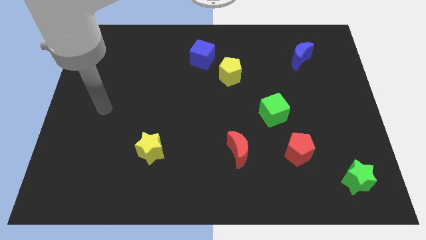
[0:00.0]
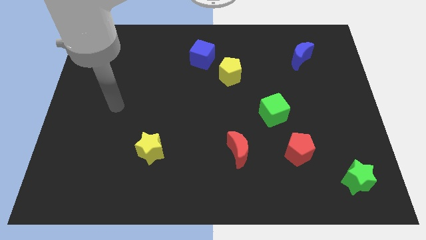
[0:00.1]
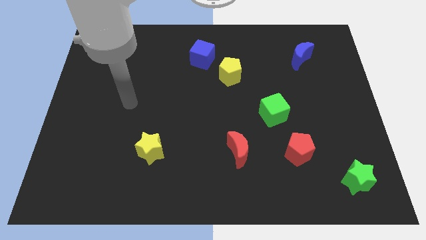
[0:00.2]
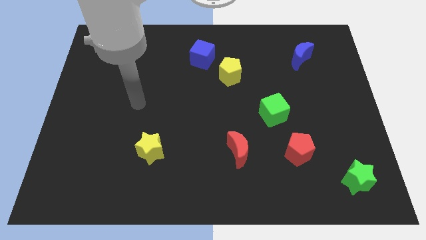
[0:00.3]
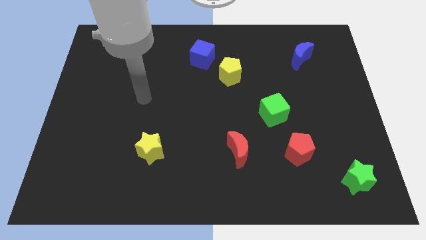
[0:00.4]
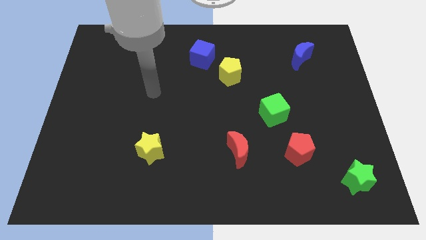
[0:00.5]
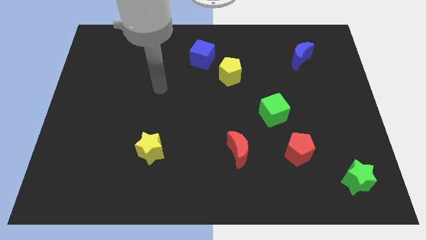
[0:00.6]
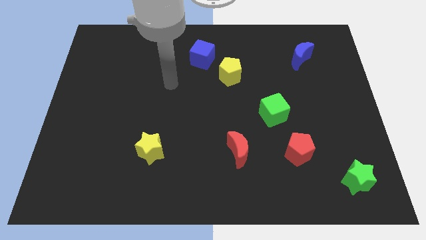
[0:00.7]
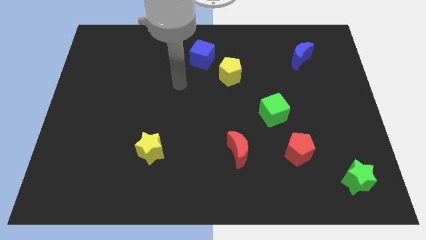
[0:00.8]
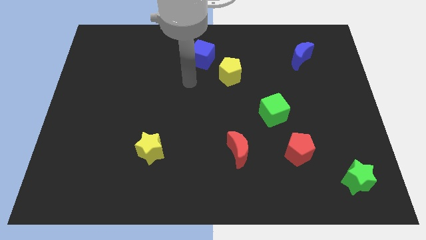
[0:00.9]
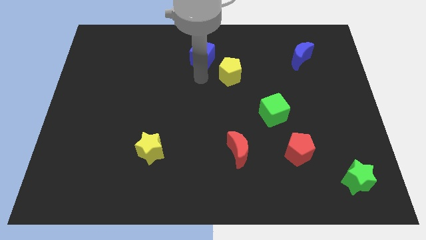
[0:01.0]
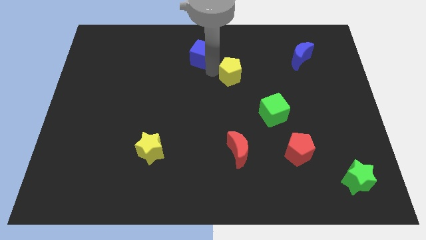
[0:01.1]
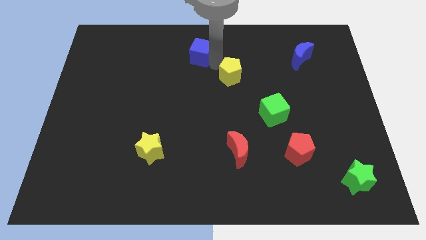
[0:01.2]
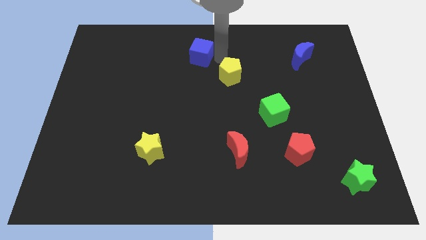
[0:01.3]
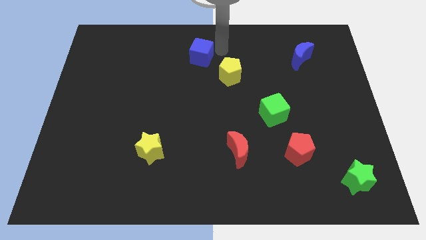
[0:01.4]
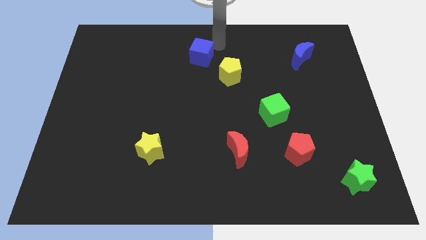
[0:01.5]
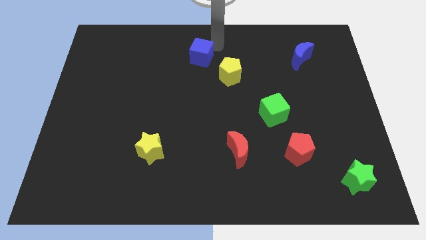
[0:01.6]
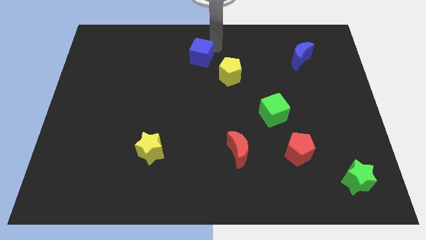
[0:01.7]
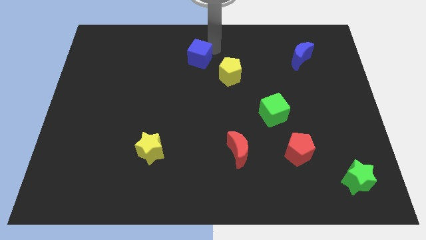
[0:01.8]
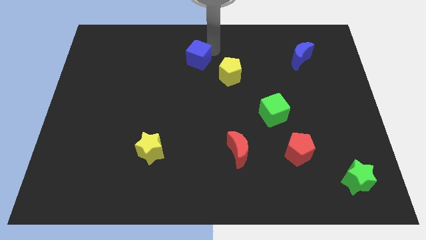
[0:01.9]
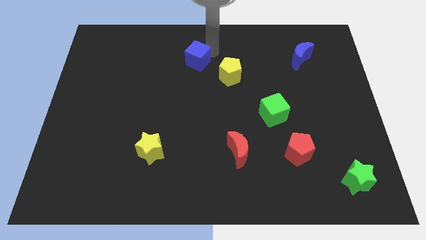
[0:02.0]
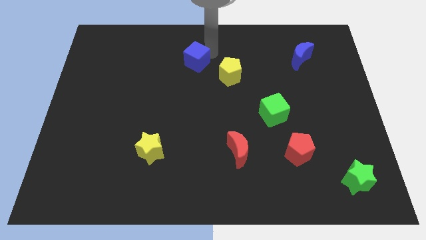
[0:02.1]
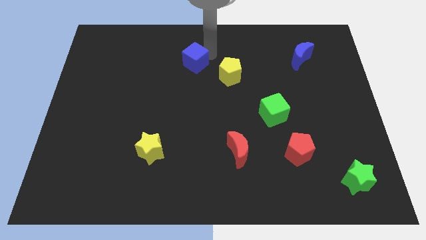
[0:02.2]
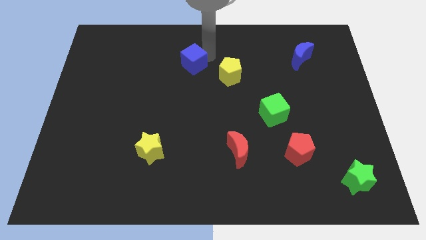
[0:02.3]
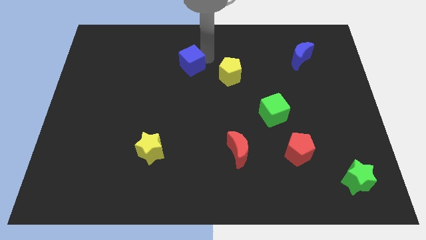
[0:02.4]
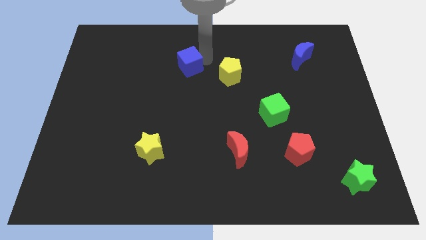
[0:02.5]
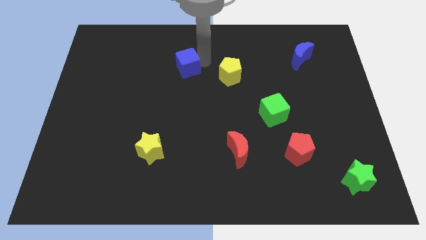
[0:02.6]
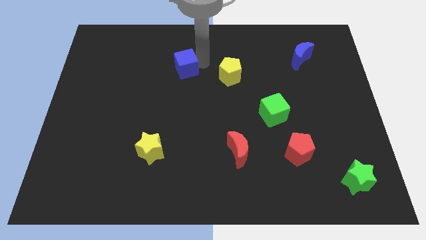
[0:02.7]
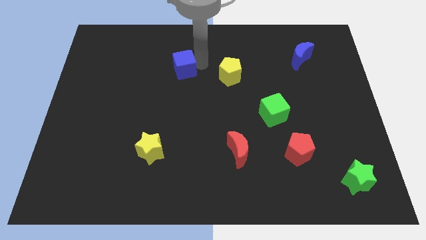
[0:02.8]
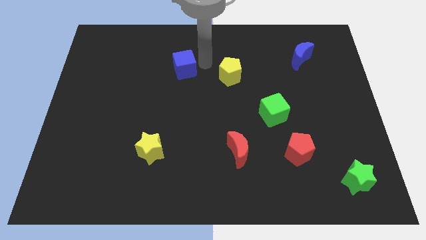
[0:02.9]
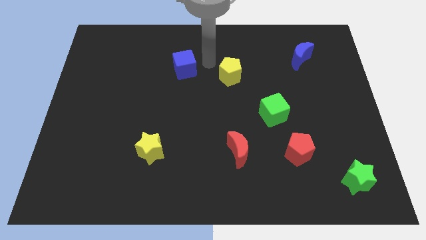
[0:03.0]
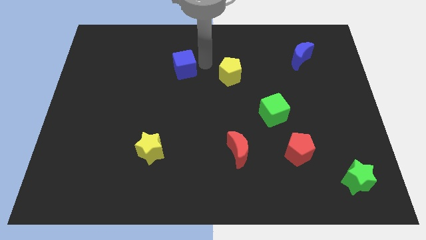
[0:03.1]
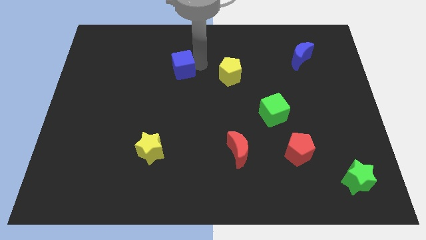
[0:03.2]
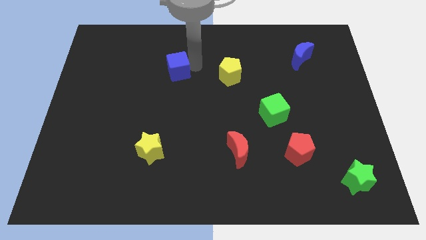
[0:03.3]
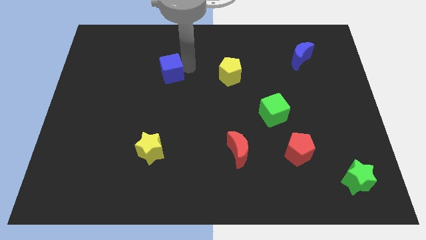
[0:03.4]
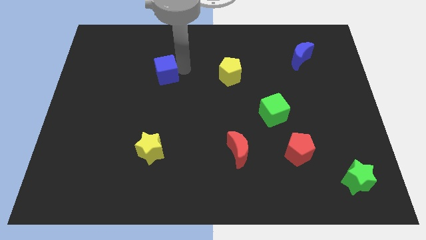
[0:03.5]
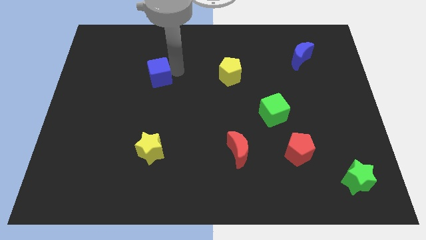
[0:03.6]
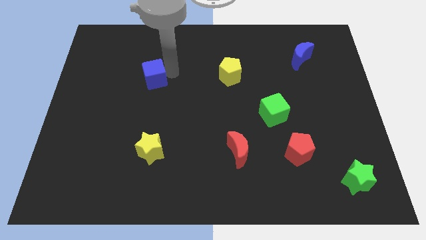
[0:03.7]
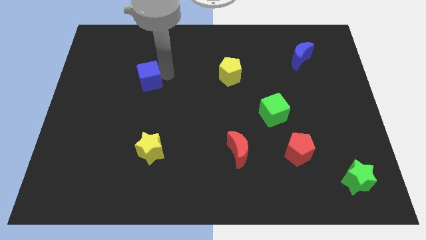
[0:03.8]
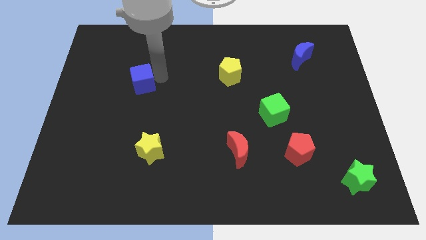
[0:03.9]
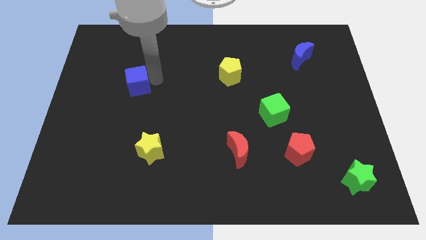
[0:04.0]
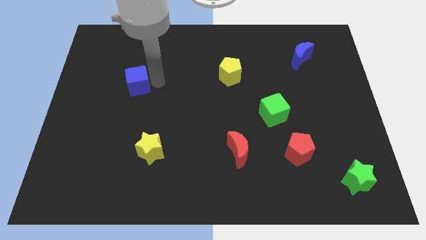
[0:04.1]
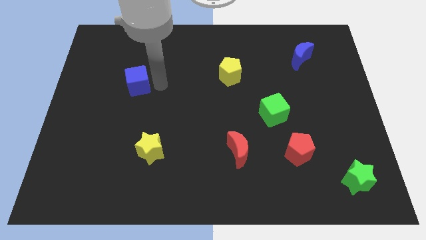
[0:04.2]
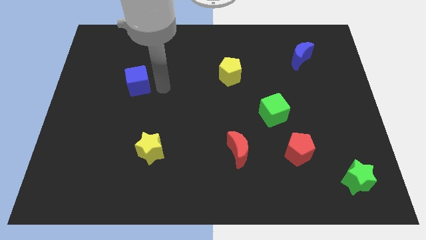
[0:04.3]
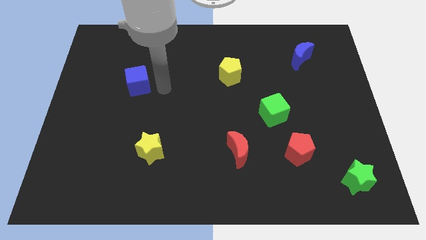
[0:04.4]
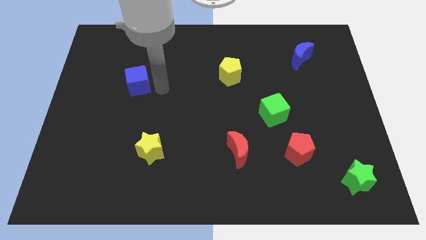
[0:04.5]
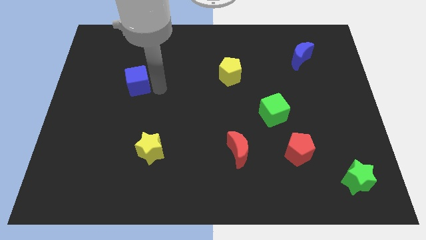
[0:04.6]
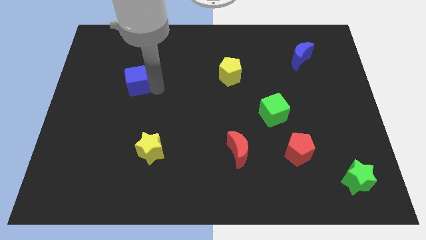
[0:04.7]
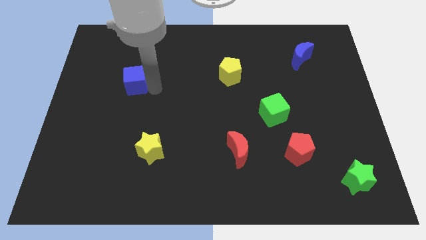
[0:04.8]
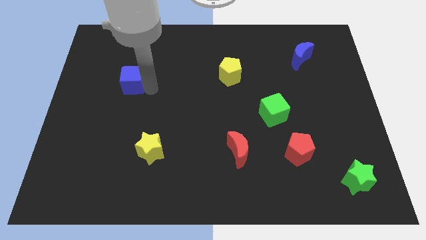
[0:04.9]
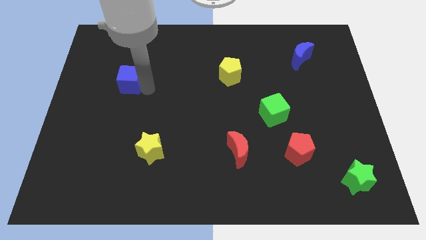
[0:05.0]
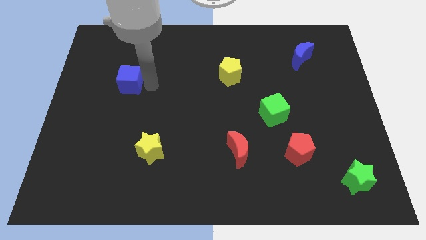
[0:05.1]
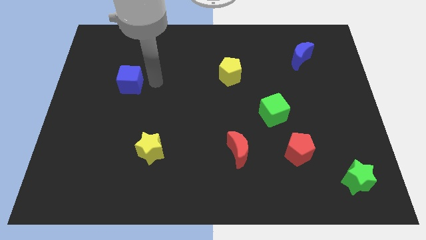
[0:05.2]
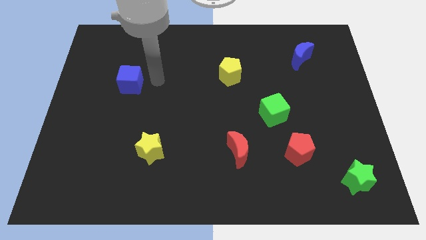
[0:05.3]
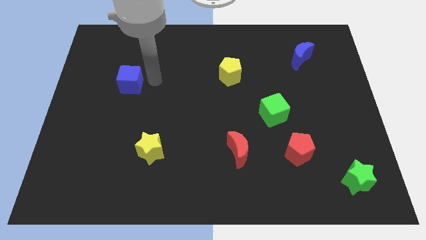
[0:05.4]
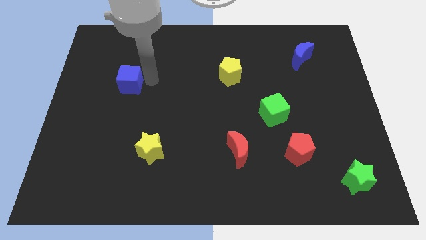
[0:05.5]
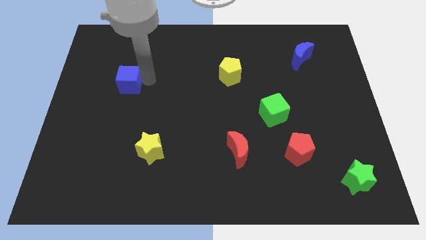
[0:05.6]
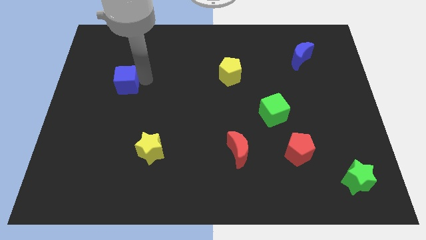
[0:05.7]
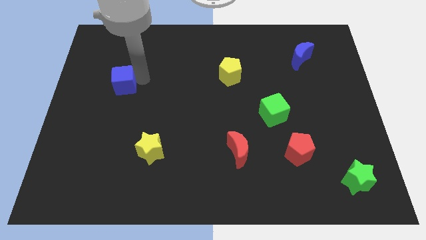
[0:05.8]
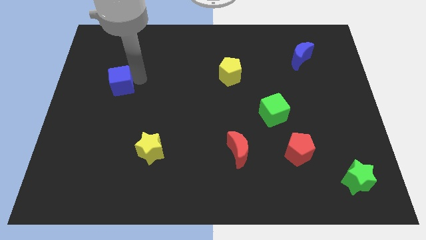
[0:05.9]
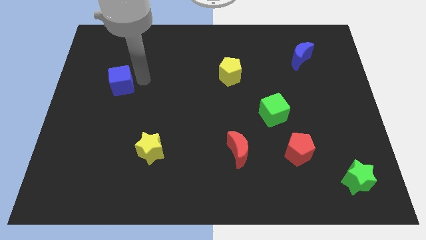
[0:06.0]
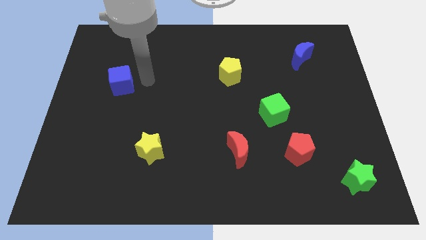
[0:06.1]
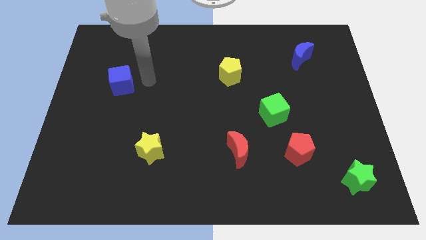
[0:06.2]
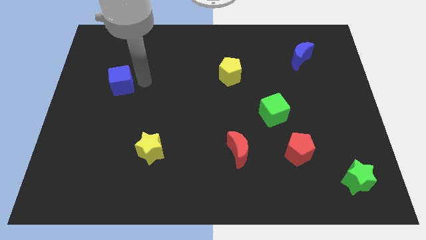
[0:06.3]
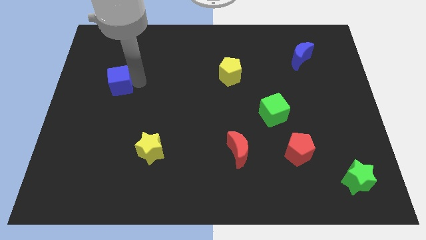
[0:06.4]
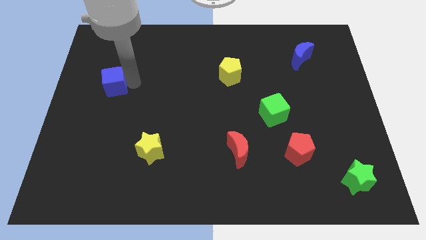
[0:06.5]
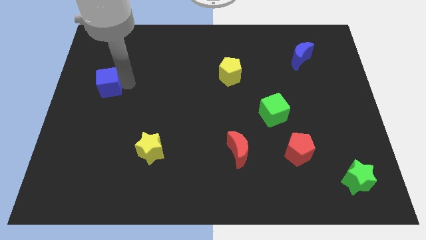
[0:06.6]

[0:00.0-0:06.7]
slide the blue cube to the left side
